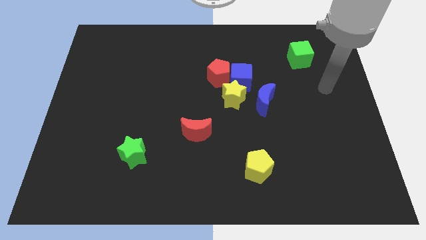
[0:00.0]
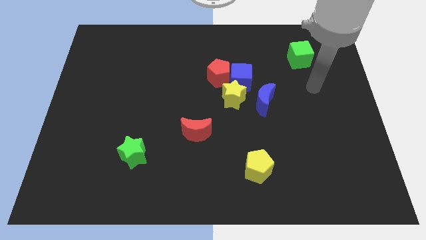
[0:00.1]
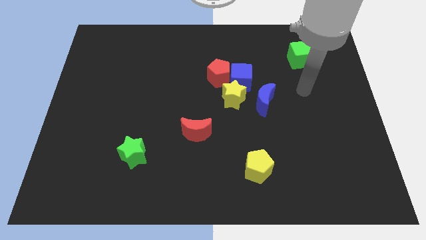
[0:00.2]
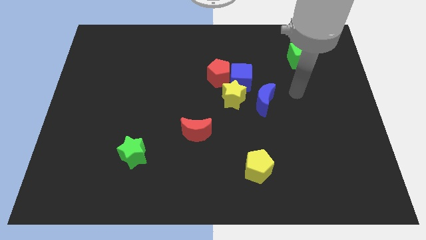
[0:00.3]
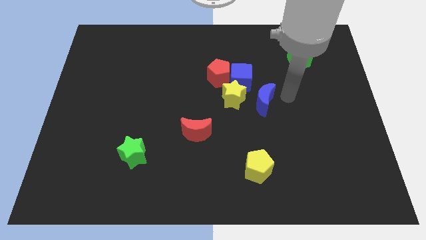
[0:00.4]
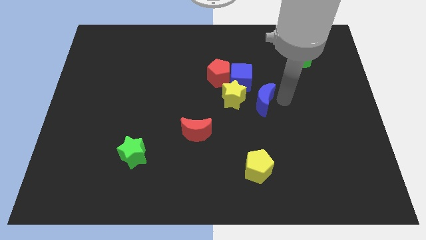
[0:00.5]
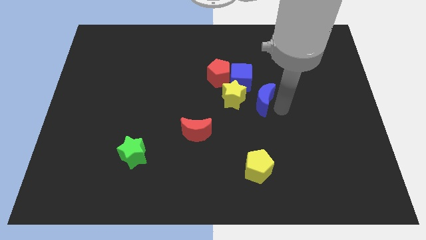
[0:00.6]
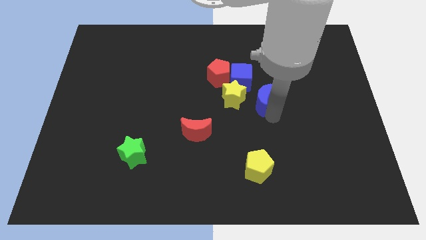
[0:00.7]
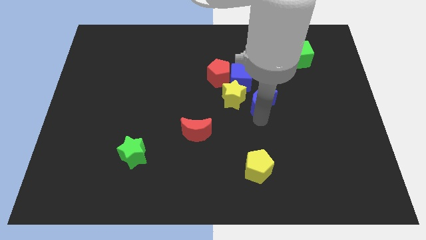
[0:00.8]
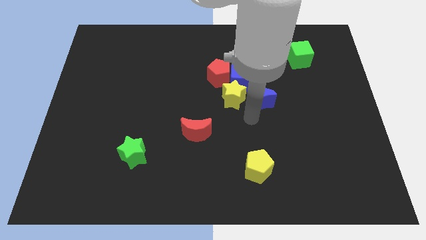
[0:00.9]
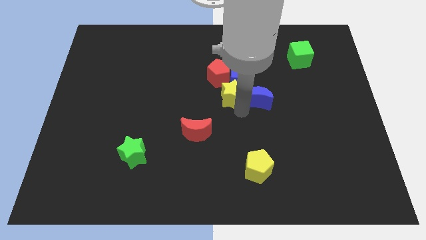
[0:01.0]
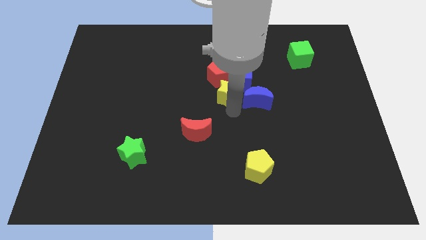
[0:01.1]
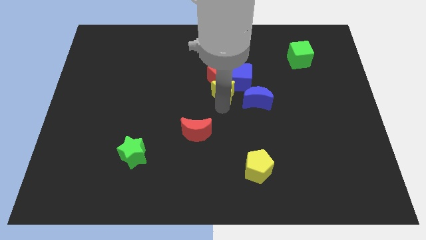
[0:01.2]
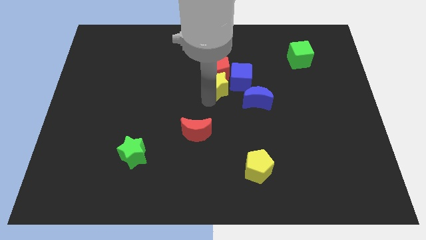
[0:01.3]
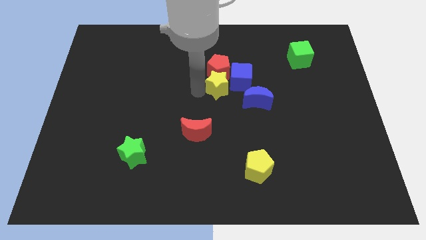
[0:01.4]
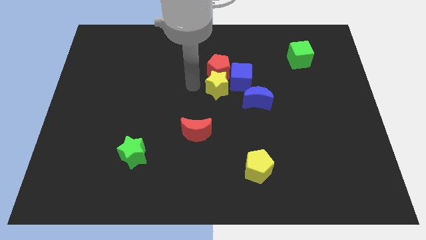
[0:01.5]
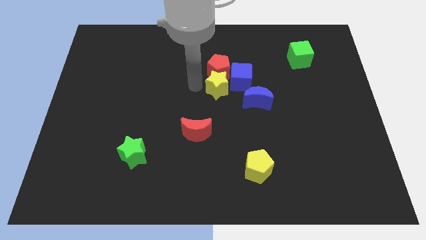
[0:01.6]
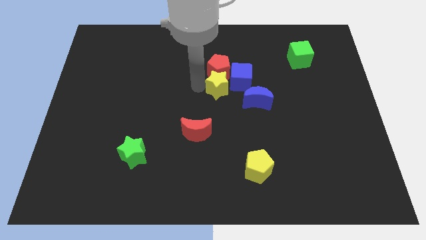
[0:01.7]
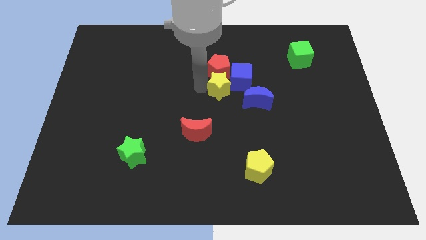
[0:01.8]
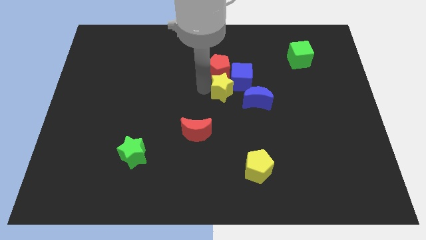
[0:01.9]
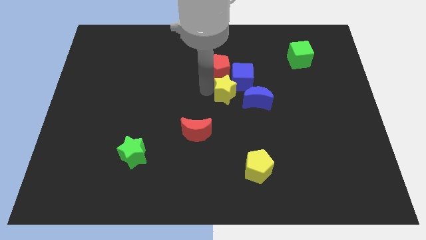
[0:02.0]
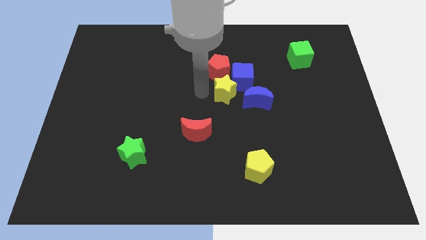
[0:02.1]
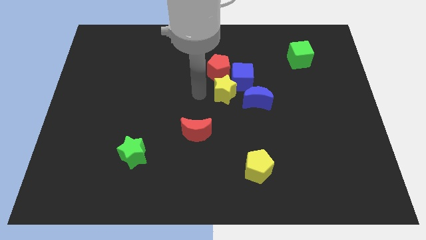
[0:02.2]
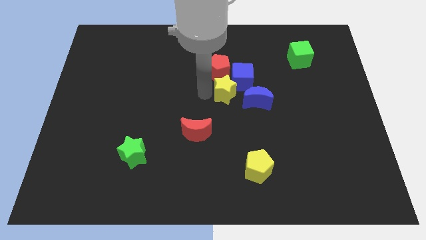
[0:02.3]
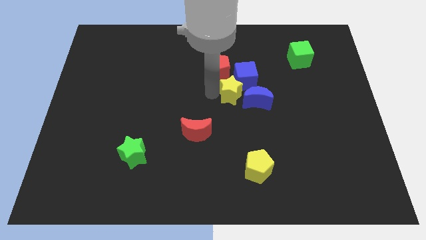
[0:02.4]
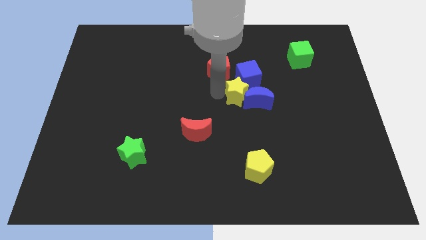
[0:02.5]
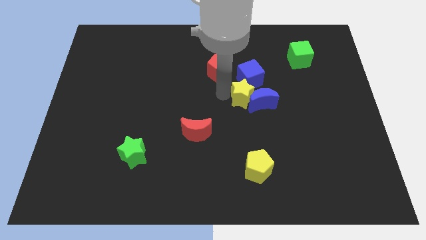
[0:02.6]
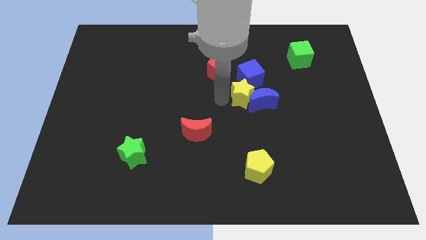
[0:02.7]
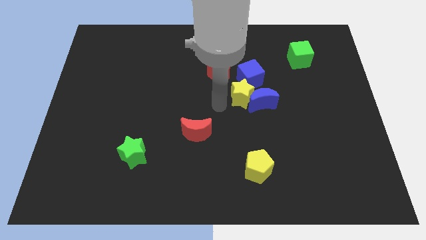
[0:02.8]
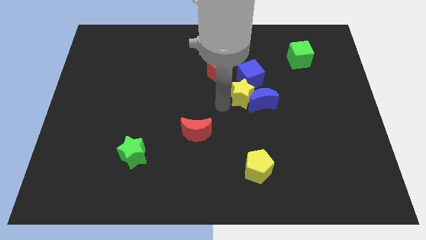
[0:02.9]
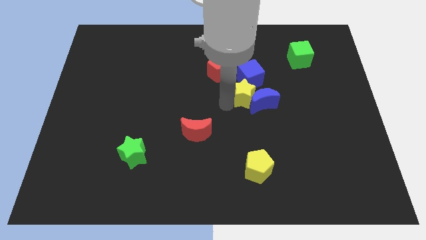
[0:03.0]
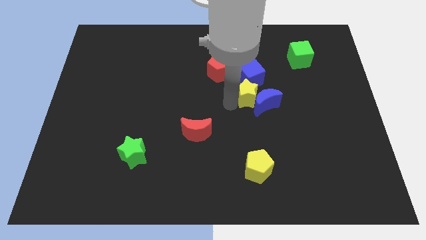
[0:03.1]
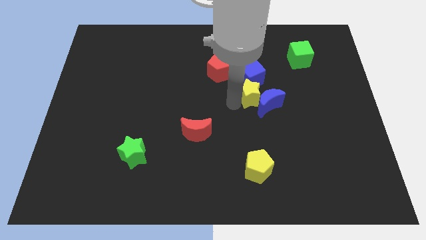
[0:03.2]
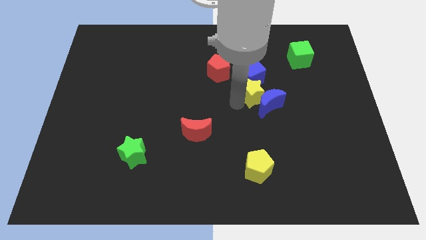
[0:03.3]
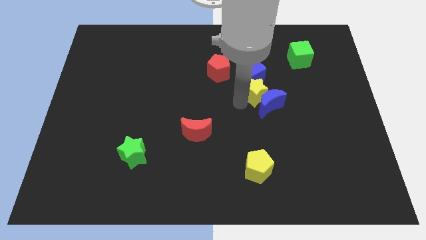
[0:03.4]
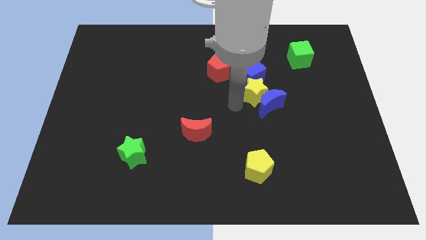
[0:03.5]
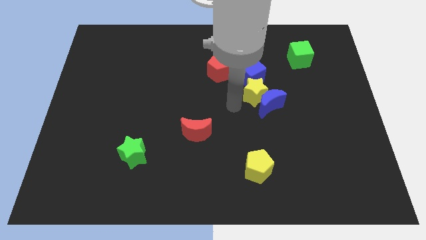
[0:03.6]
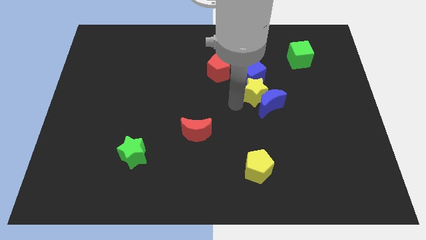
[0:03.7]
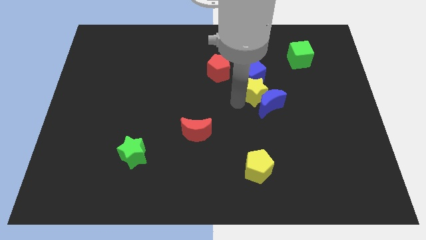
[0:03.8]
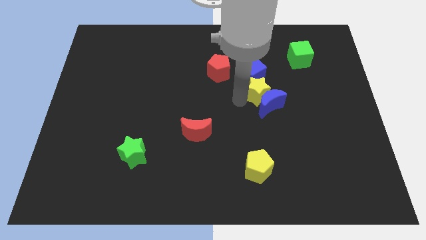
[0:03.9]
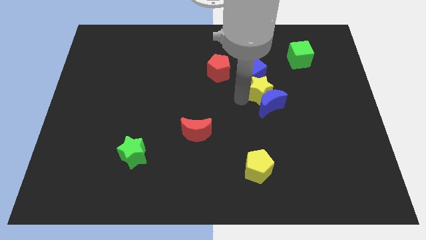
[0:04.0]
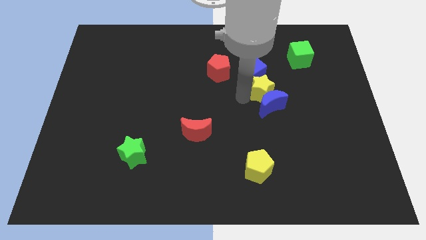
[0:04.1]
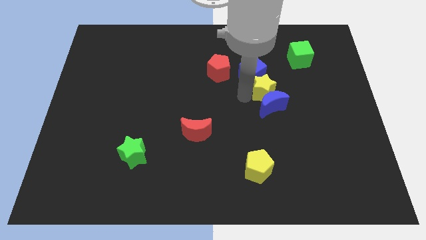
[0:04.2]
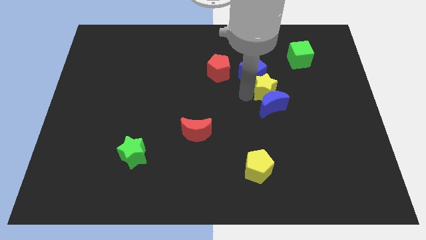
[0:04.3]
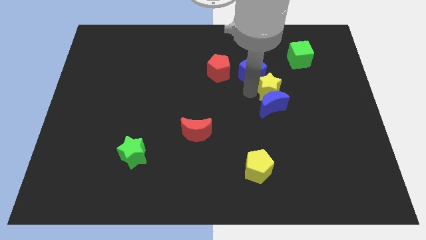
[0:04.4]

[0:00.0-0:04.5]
push the yellow star a bit up and to the right

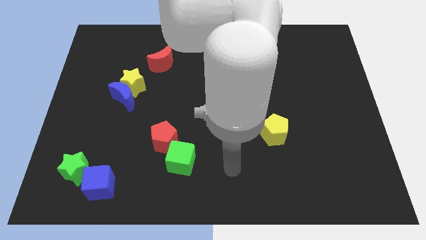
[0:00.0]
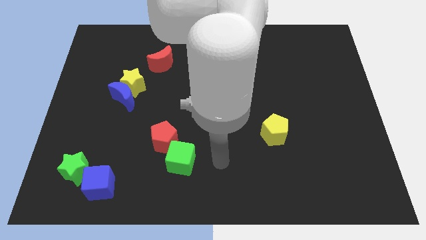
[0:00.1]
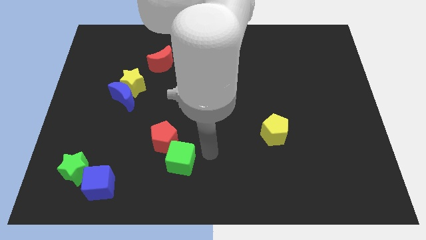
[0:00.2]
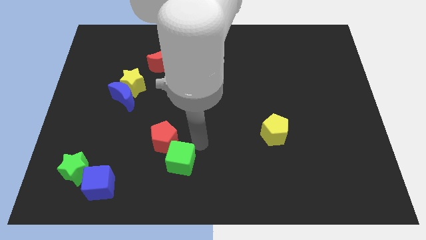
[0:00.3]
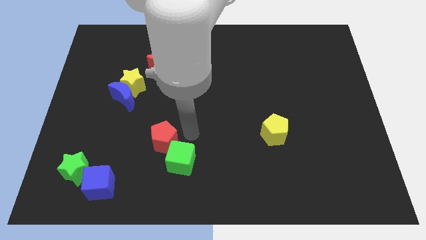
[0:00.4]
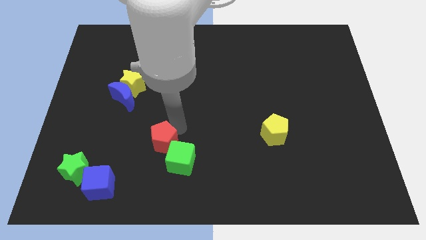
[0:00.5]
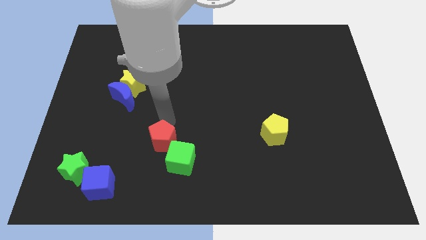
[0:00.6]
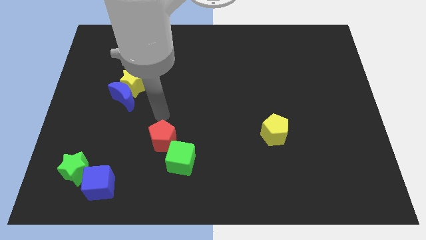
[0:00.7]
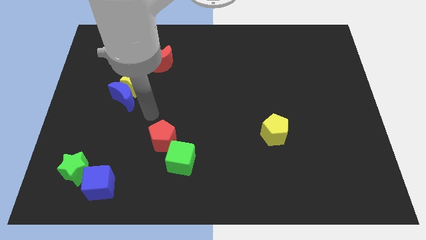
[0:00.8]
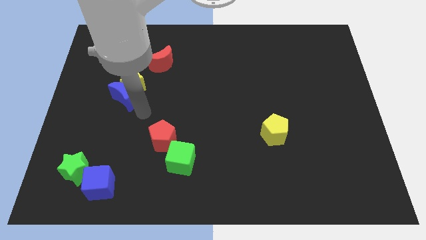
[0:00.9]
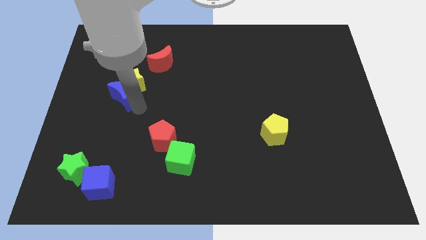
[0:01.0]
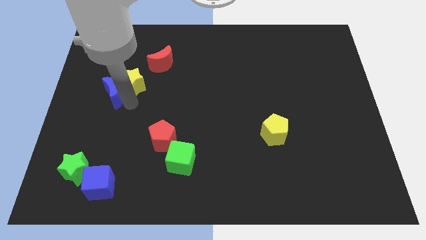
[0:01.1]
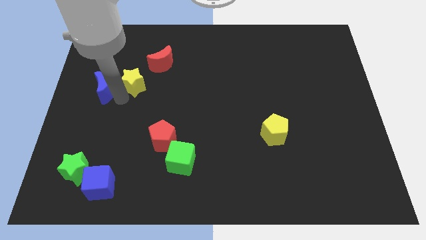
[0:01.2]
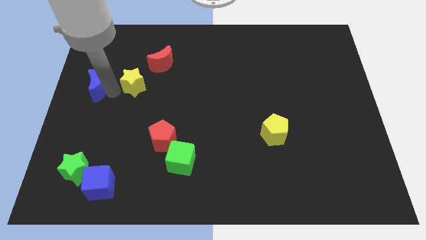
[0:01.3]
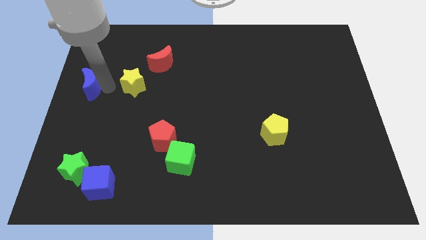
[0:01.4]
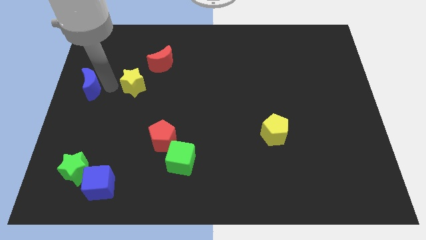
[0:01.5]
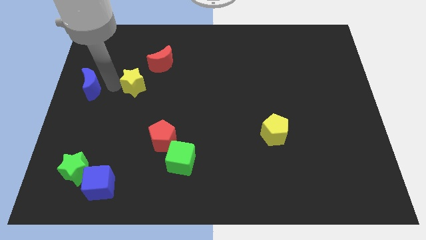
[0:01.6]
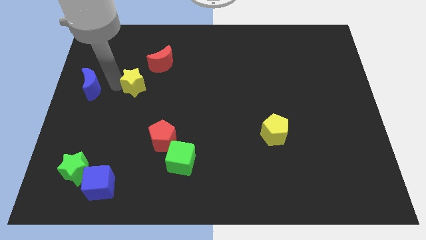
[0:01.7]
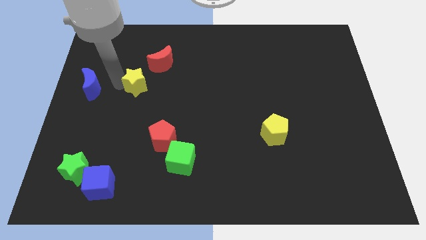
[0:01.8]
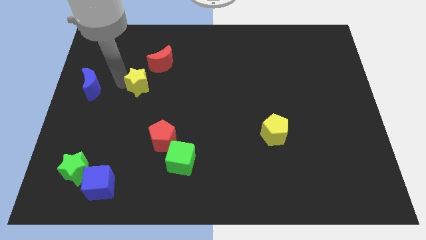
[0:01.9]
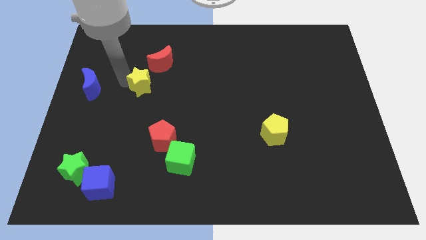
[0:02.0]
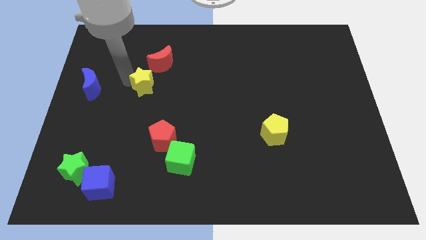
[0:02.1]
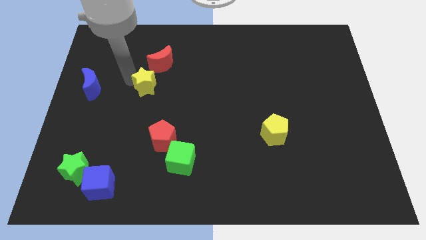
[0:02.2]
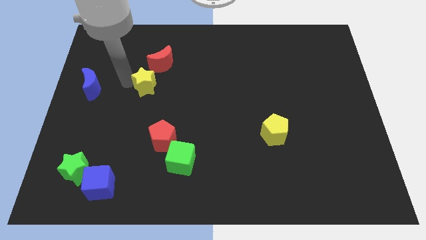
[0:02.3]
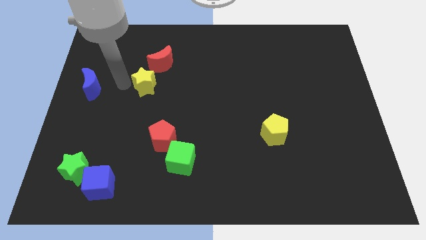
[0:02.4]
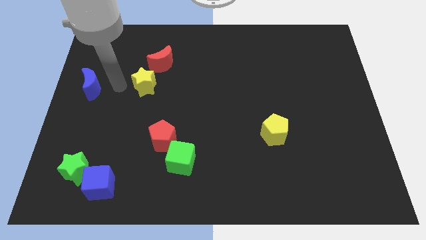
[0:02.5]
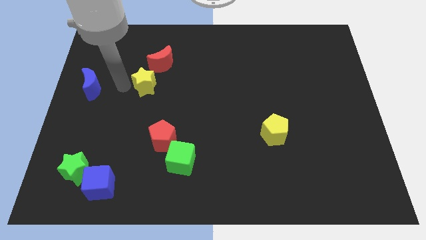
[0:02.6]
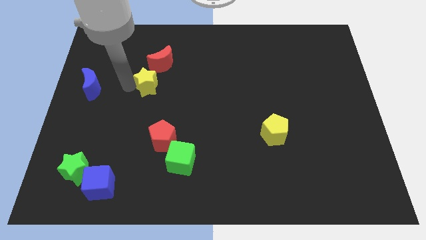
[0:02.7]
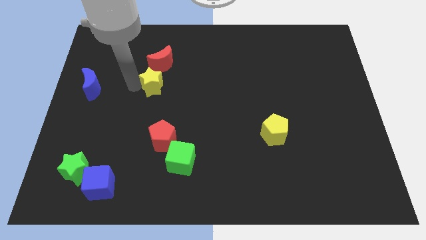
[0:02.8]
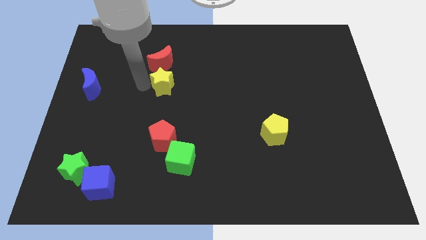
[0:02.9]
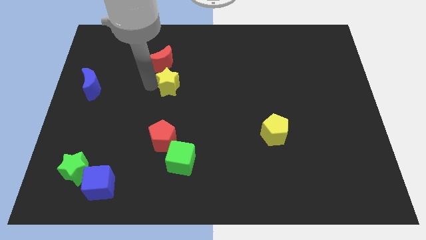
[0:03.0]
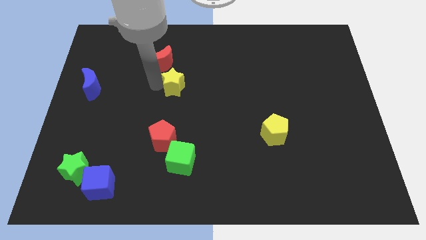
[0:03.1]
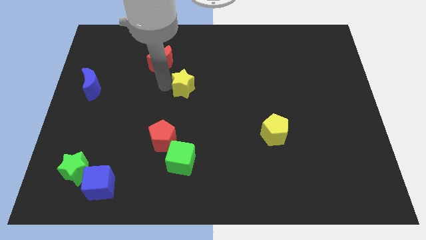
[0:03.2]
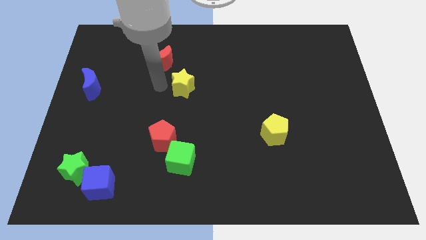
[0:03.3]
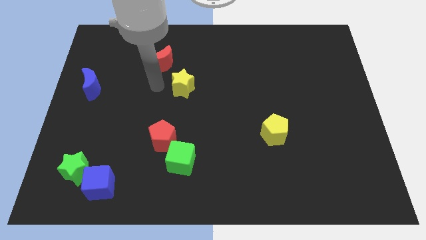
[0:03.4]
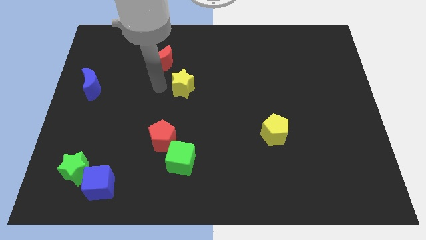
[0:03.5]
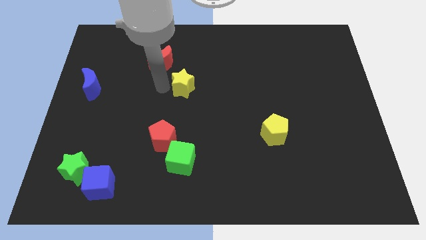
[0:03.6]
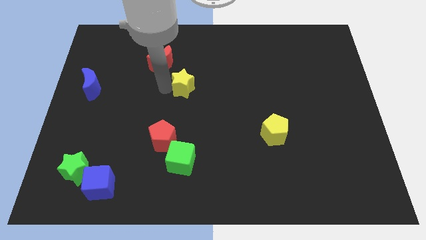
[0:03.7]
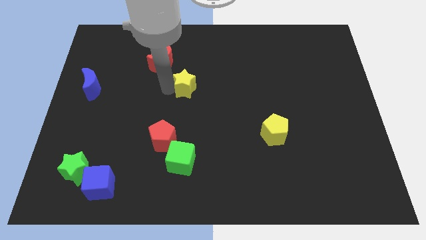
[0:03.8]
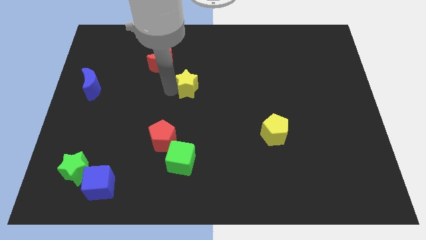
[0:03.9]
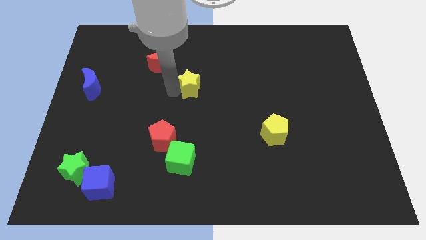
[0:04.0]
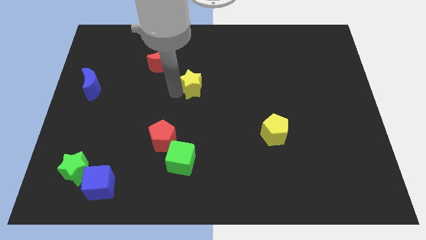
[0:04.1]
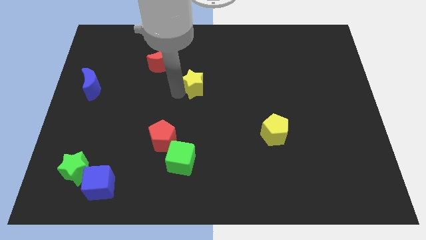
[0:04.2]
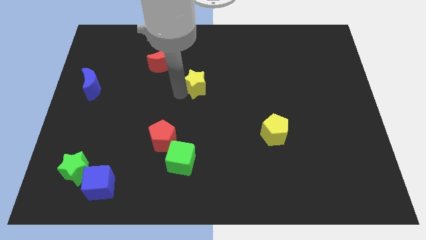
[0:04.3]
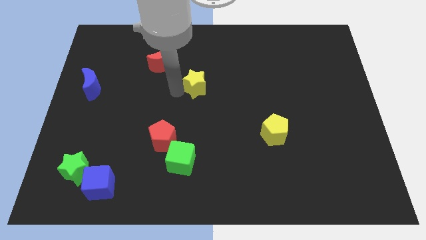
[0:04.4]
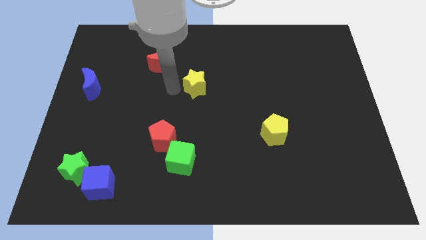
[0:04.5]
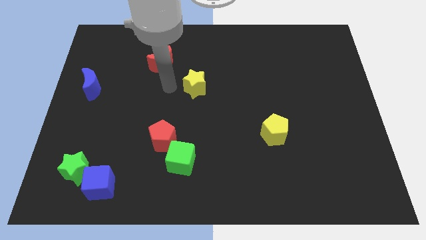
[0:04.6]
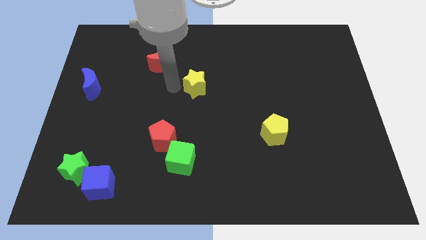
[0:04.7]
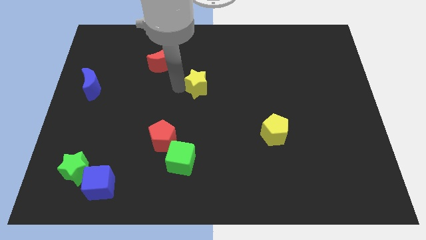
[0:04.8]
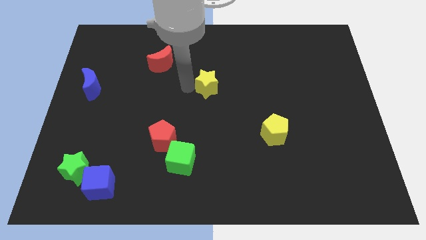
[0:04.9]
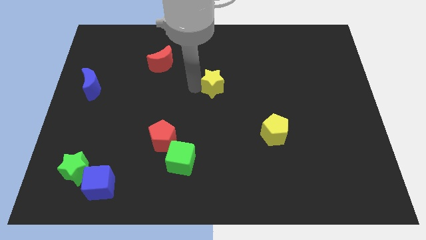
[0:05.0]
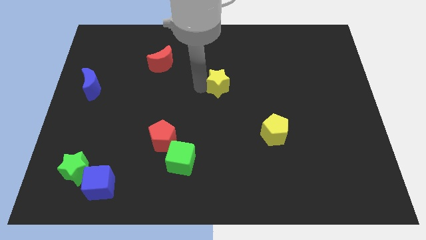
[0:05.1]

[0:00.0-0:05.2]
slide the yellow star to the right
